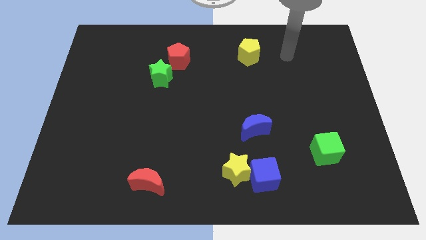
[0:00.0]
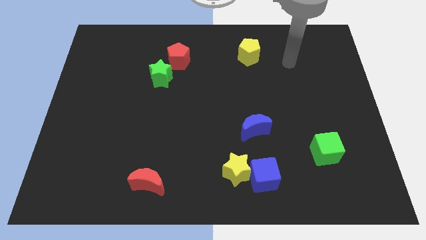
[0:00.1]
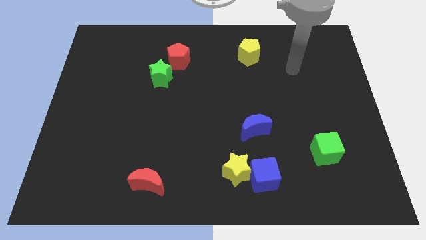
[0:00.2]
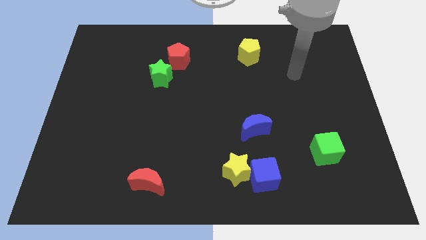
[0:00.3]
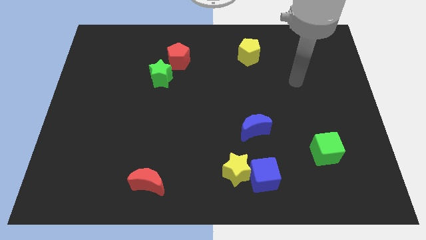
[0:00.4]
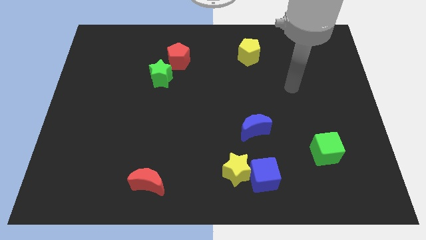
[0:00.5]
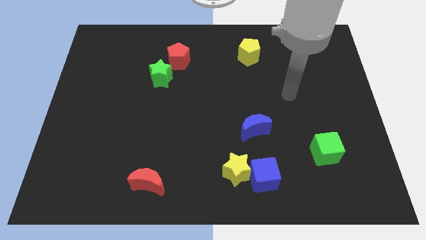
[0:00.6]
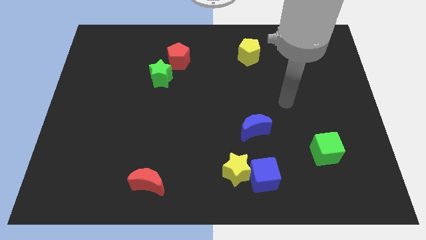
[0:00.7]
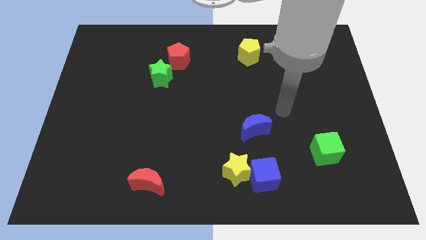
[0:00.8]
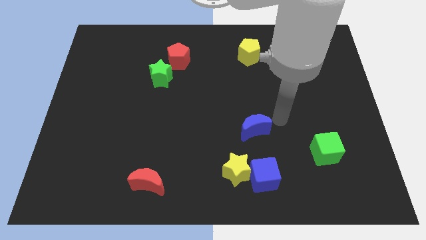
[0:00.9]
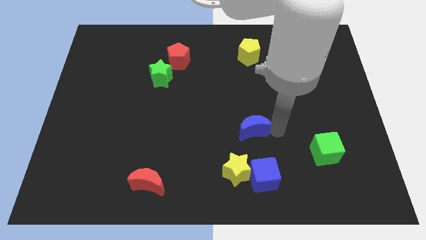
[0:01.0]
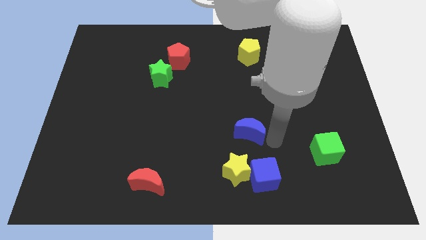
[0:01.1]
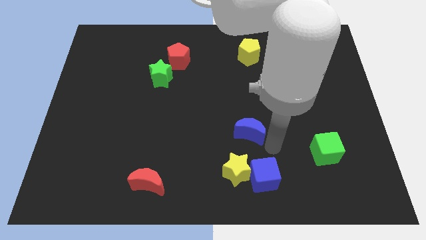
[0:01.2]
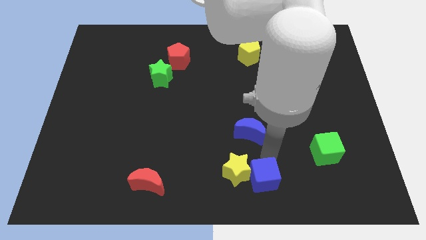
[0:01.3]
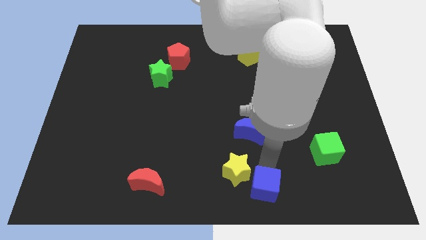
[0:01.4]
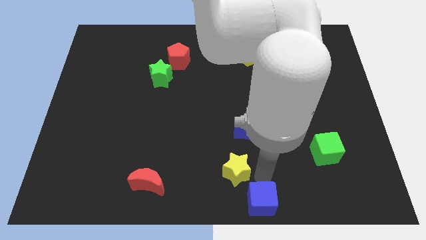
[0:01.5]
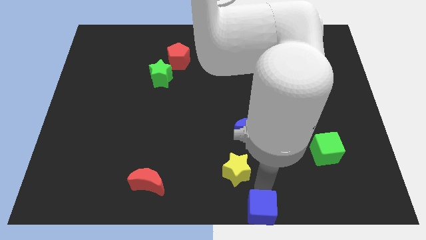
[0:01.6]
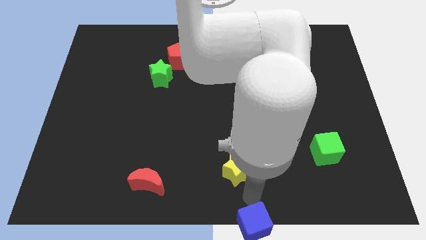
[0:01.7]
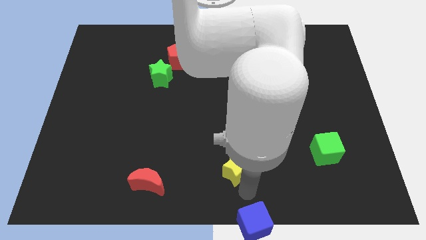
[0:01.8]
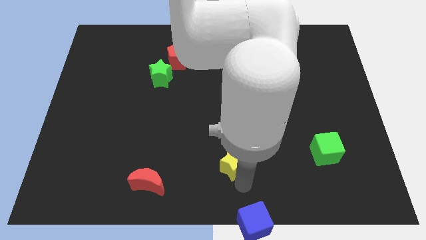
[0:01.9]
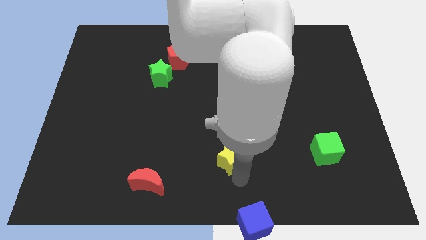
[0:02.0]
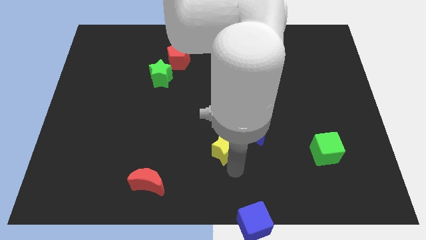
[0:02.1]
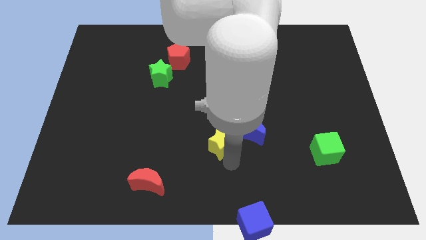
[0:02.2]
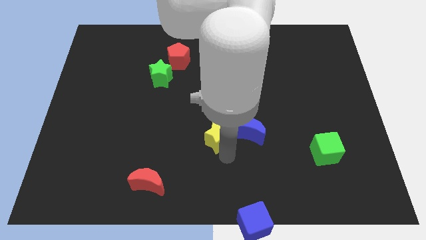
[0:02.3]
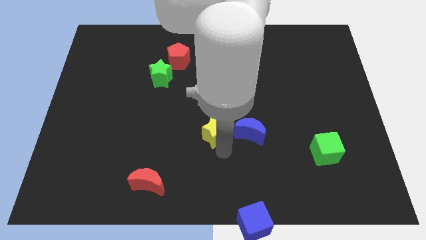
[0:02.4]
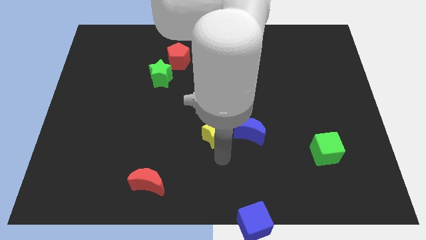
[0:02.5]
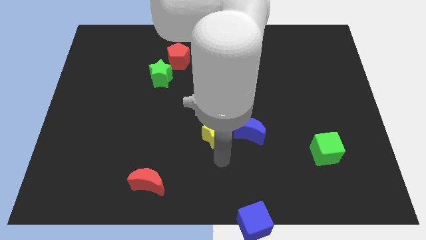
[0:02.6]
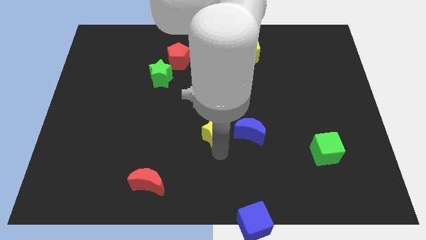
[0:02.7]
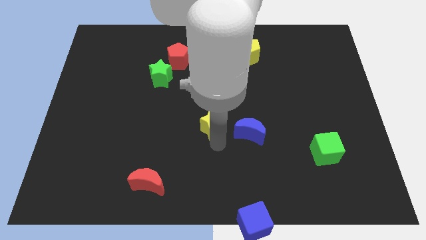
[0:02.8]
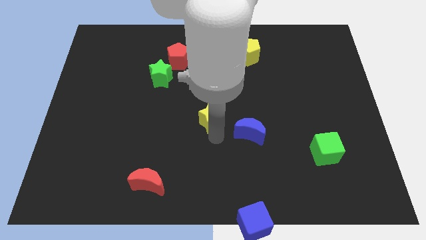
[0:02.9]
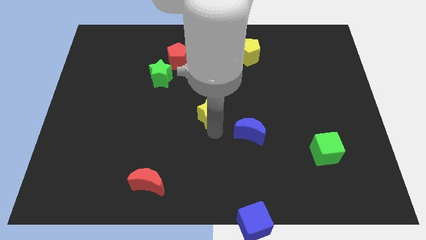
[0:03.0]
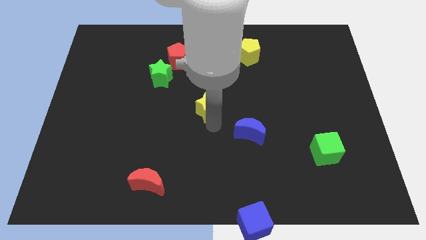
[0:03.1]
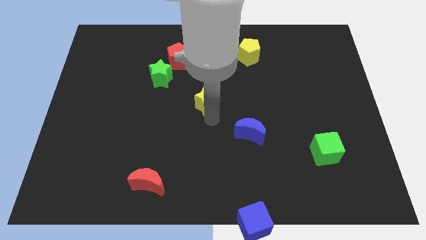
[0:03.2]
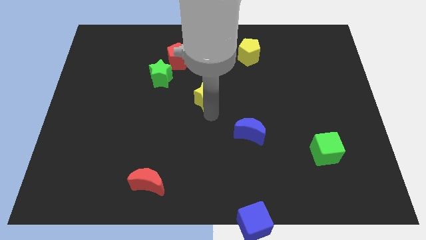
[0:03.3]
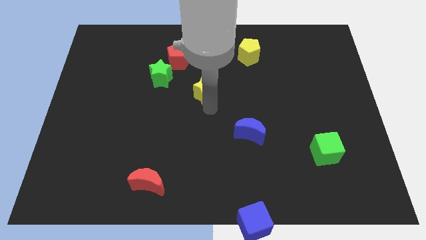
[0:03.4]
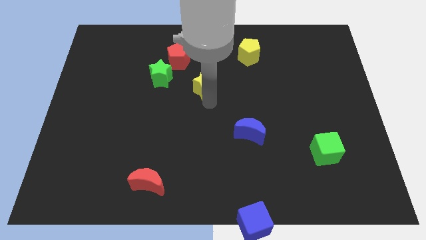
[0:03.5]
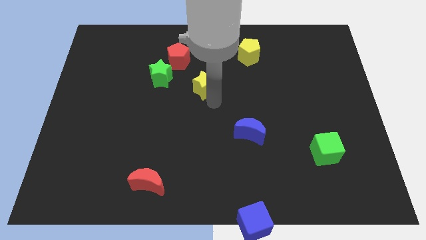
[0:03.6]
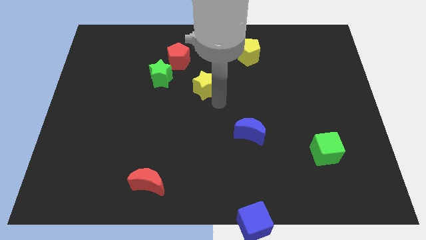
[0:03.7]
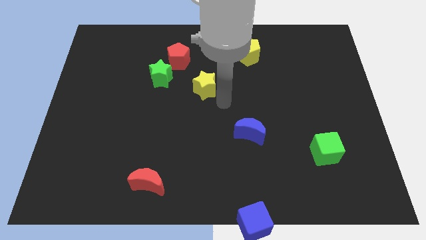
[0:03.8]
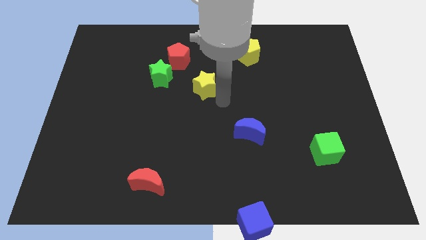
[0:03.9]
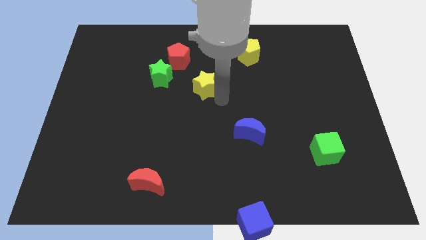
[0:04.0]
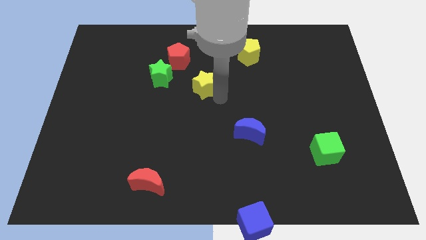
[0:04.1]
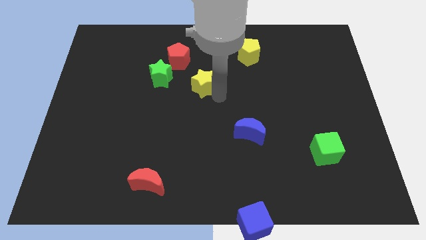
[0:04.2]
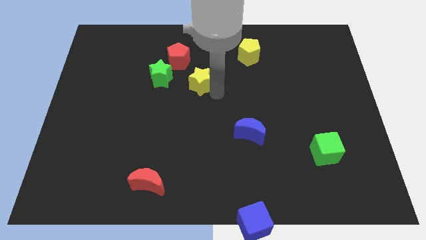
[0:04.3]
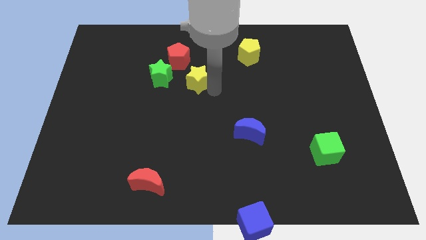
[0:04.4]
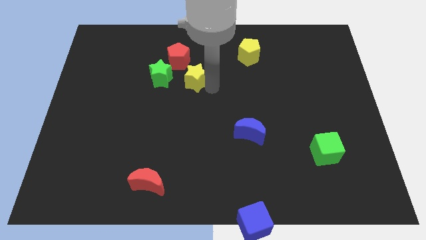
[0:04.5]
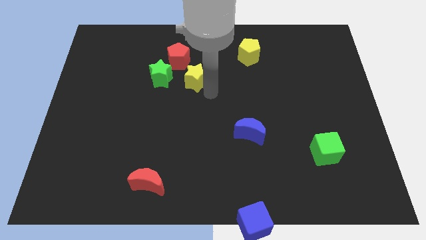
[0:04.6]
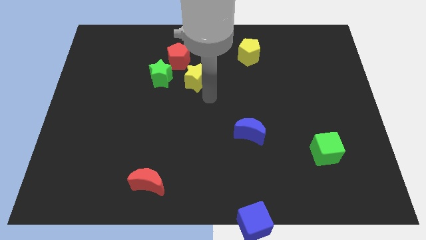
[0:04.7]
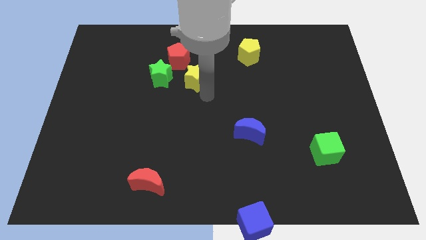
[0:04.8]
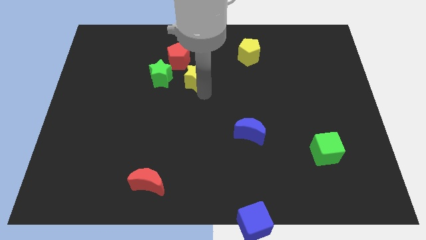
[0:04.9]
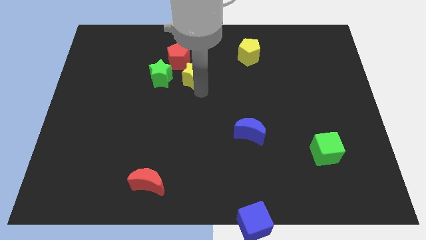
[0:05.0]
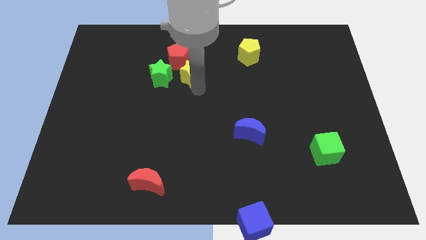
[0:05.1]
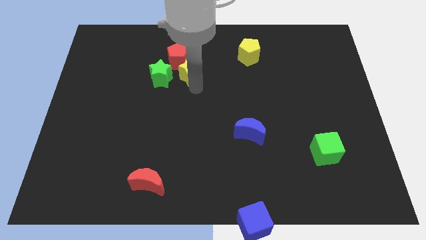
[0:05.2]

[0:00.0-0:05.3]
move the yellow star next to the red pentagon

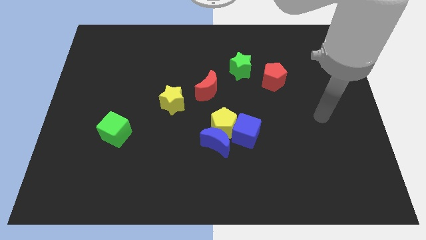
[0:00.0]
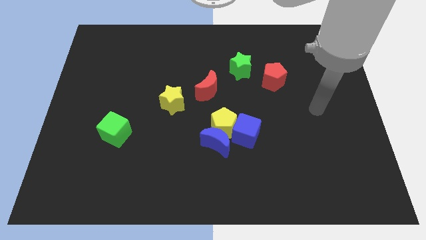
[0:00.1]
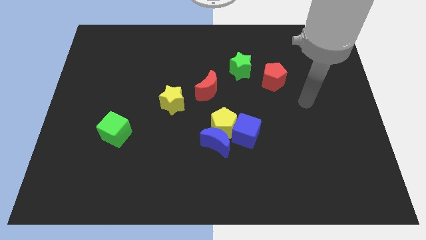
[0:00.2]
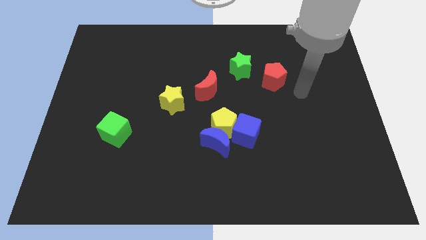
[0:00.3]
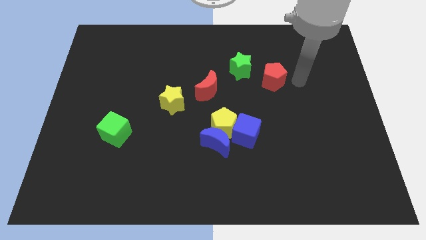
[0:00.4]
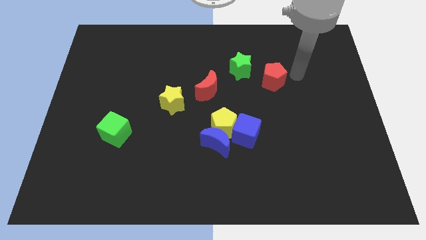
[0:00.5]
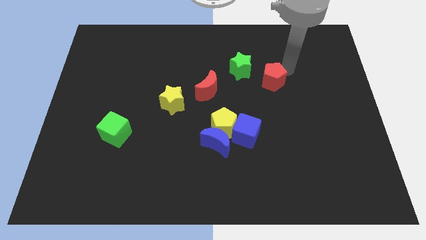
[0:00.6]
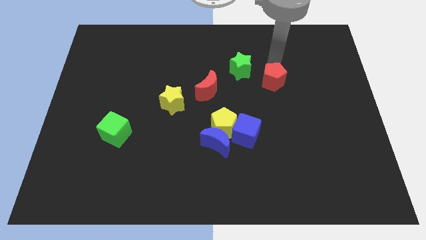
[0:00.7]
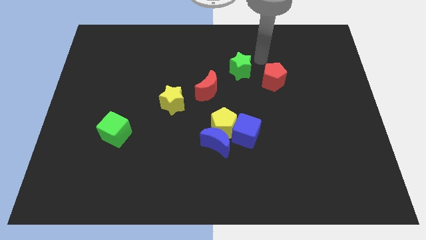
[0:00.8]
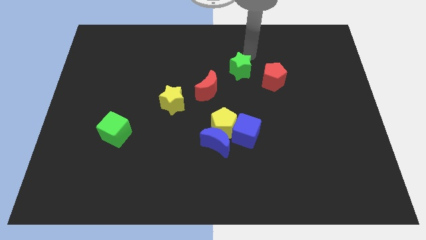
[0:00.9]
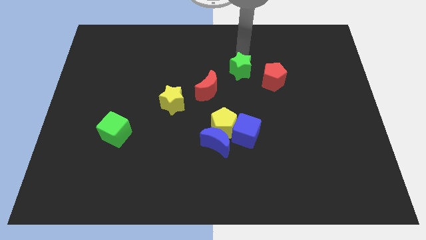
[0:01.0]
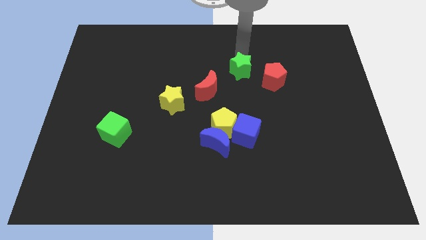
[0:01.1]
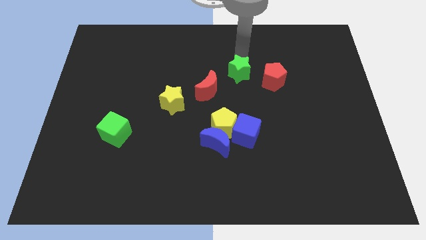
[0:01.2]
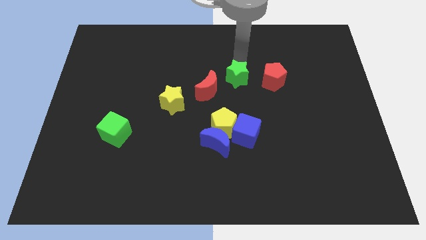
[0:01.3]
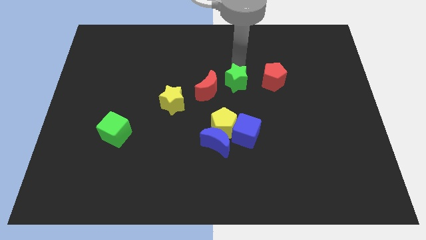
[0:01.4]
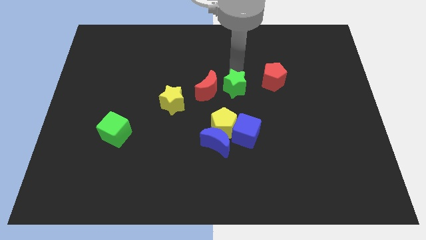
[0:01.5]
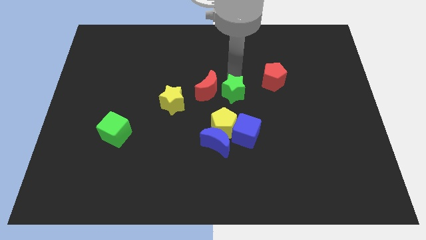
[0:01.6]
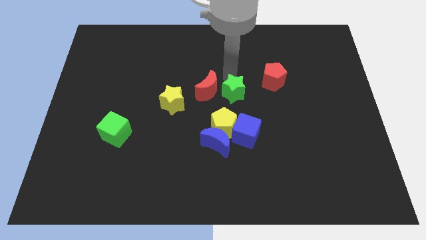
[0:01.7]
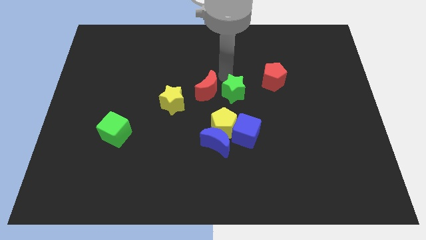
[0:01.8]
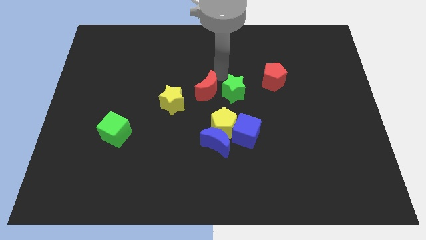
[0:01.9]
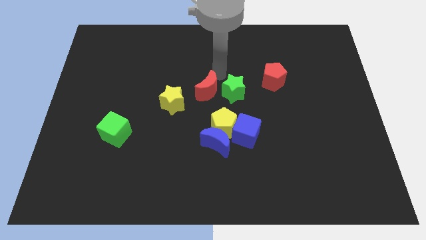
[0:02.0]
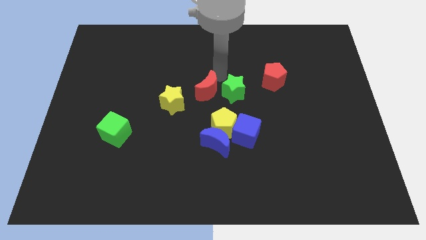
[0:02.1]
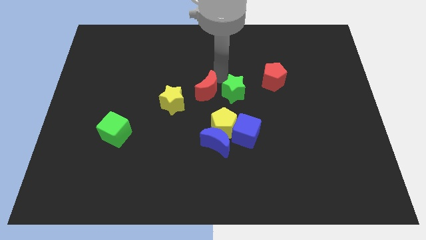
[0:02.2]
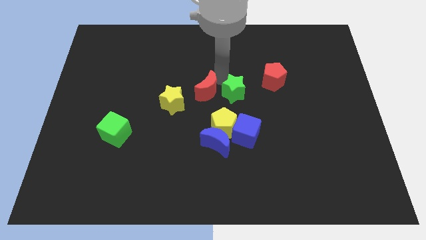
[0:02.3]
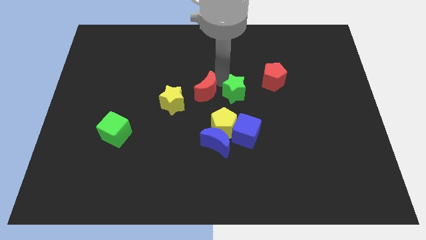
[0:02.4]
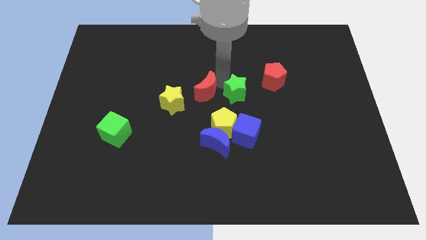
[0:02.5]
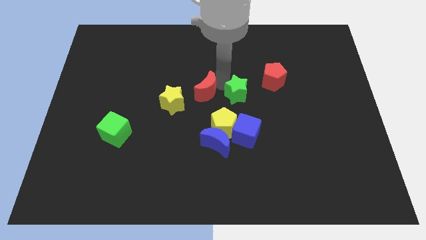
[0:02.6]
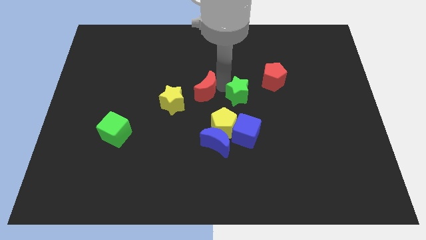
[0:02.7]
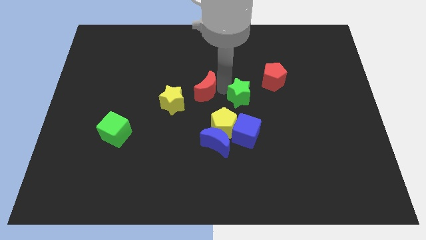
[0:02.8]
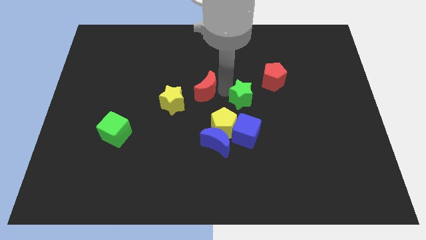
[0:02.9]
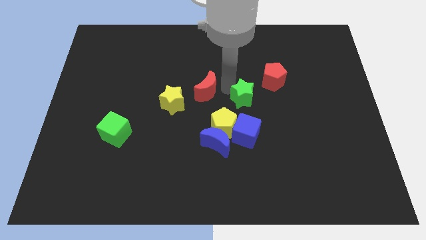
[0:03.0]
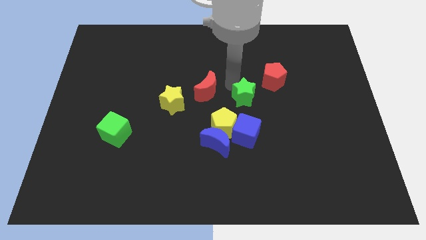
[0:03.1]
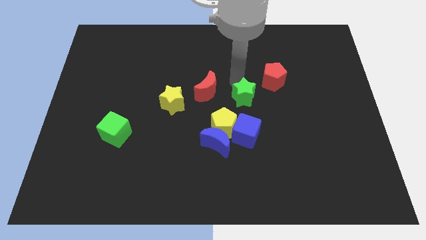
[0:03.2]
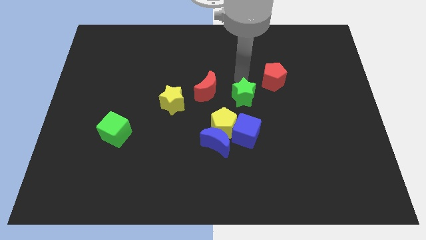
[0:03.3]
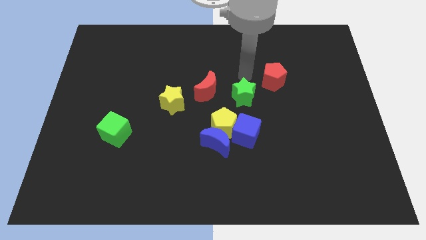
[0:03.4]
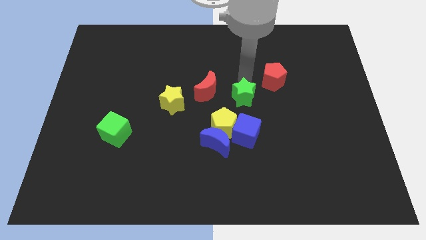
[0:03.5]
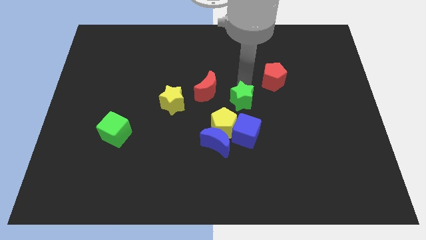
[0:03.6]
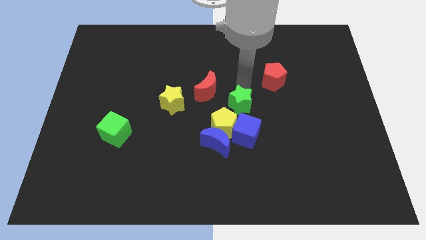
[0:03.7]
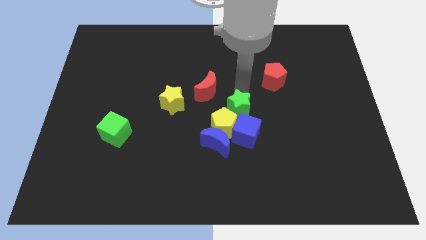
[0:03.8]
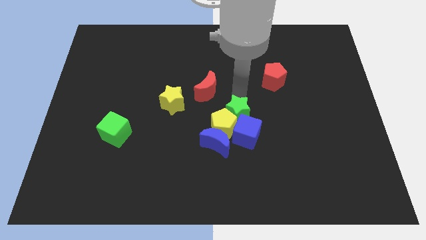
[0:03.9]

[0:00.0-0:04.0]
put the green star to the blue cube
